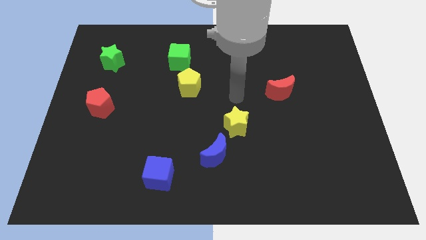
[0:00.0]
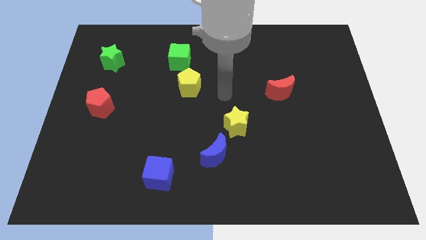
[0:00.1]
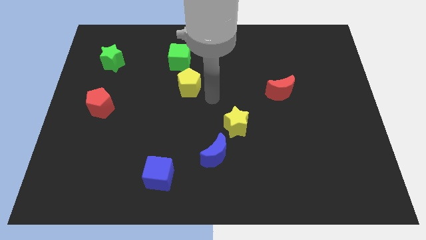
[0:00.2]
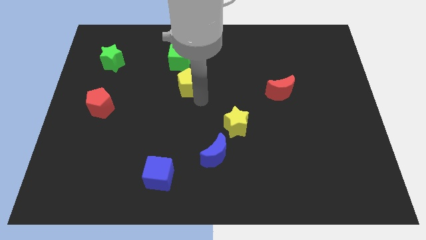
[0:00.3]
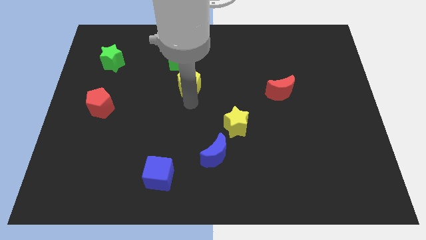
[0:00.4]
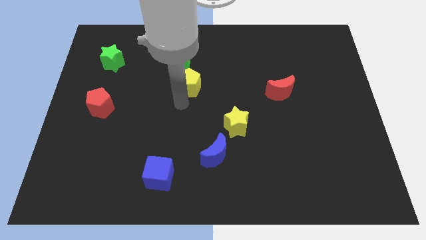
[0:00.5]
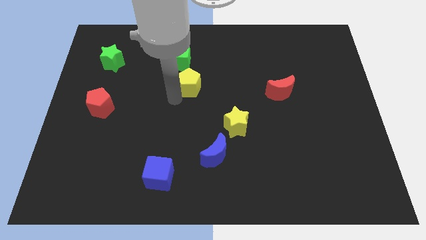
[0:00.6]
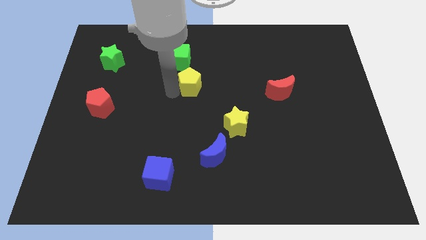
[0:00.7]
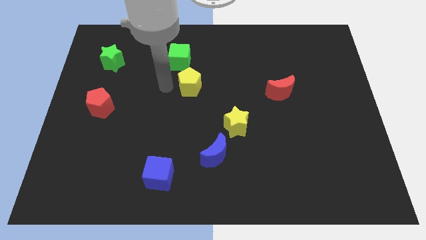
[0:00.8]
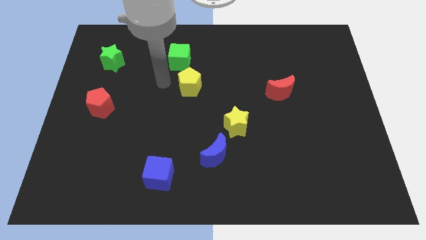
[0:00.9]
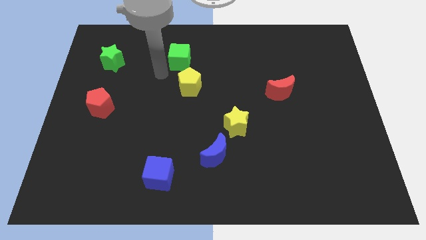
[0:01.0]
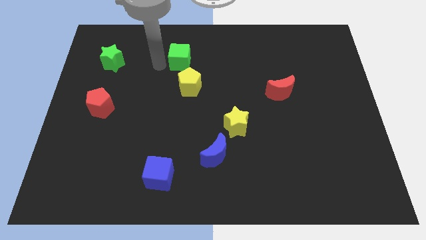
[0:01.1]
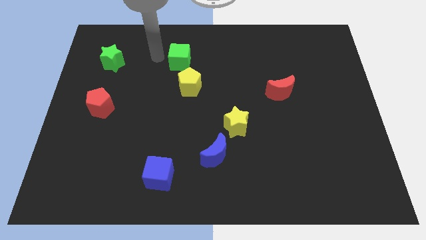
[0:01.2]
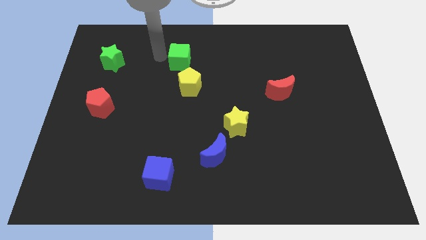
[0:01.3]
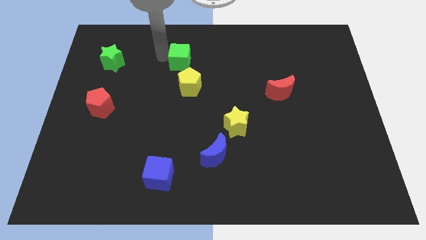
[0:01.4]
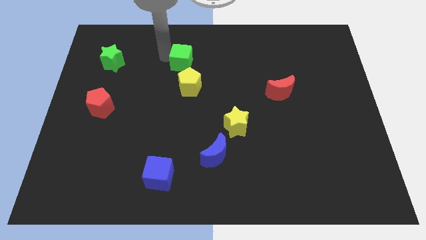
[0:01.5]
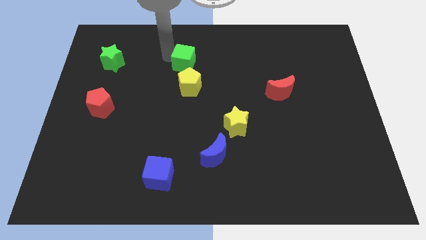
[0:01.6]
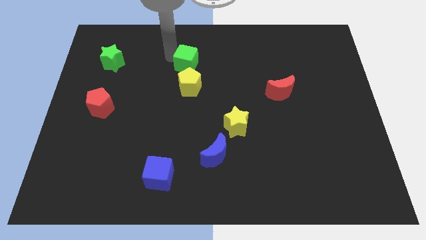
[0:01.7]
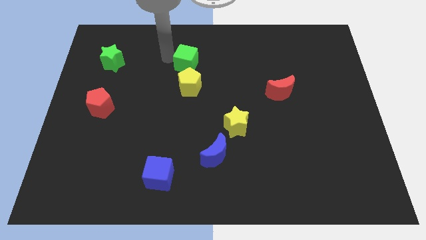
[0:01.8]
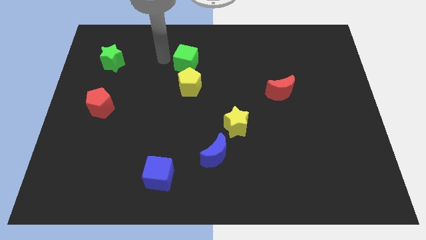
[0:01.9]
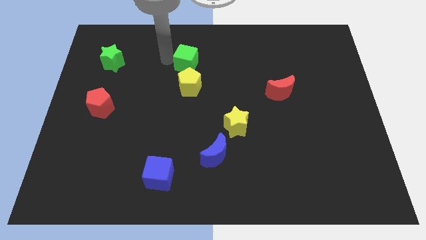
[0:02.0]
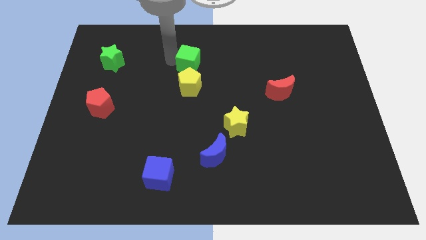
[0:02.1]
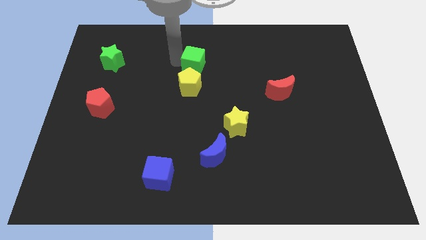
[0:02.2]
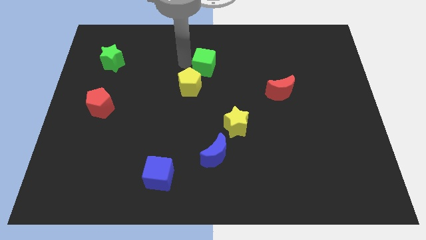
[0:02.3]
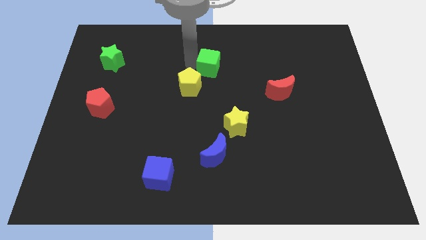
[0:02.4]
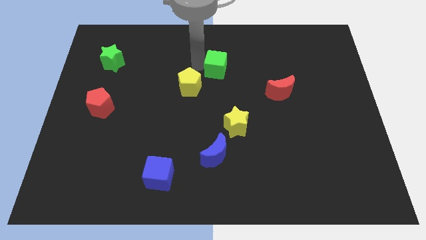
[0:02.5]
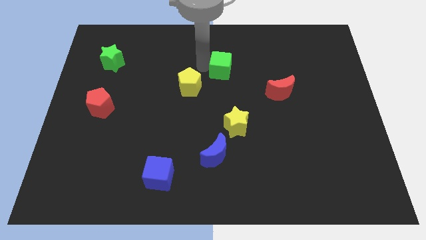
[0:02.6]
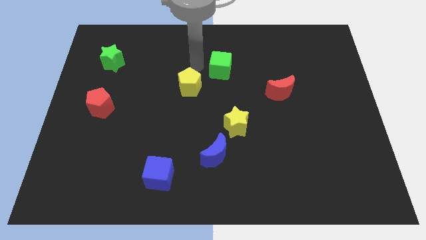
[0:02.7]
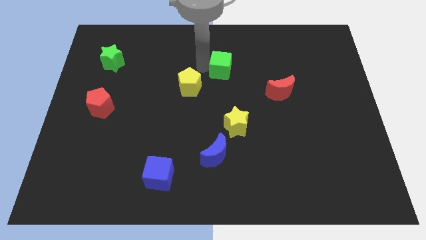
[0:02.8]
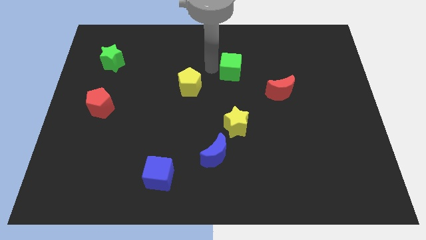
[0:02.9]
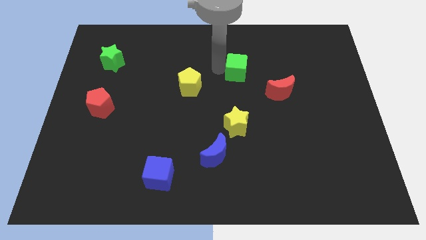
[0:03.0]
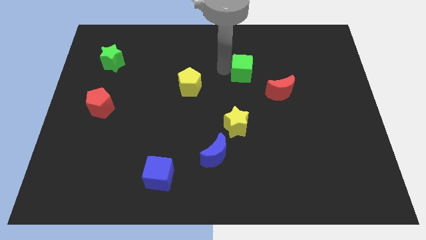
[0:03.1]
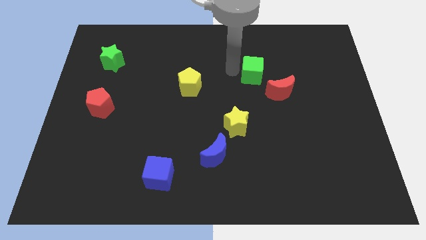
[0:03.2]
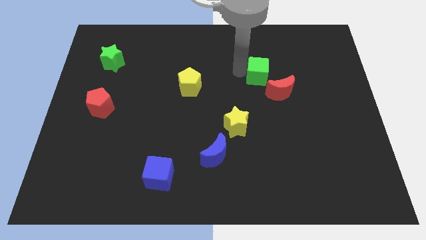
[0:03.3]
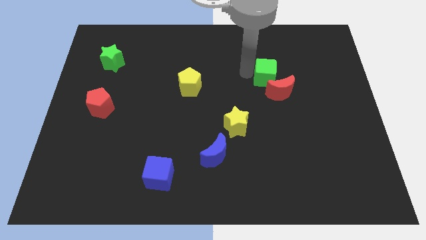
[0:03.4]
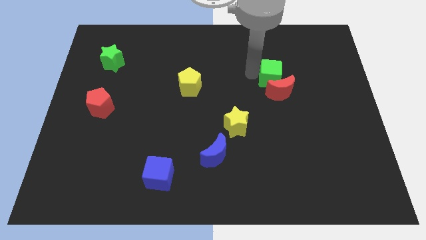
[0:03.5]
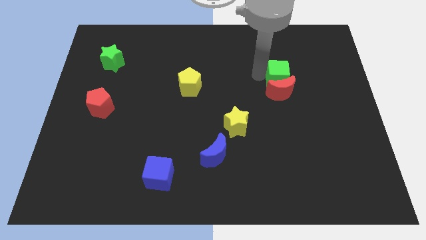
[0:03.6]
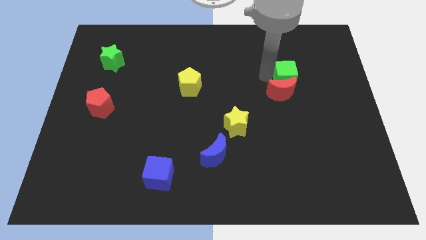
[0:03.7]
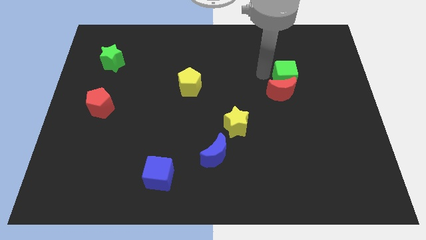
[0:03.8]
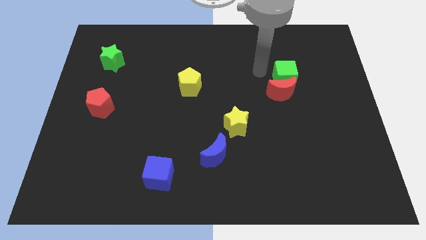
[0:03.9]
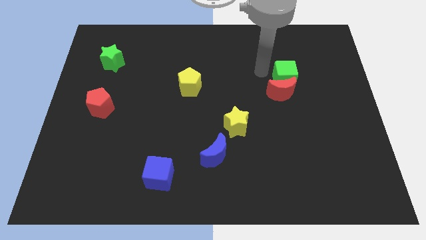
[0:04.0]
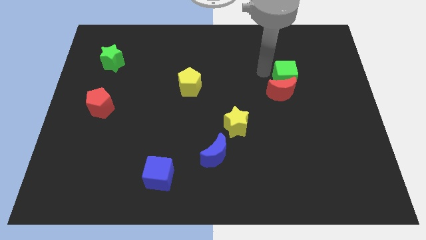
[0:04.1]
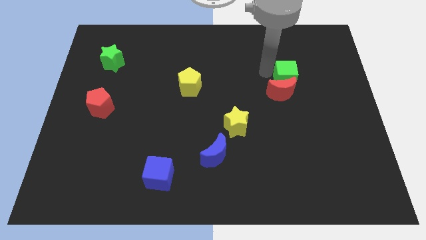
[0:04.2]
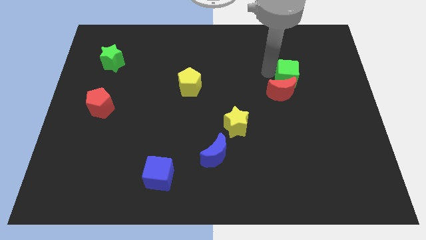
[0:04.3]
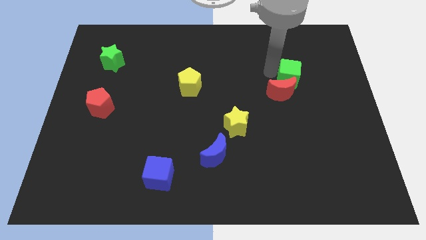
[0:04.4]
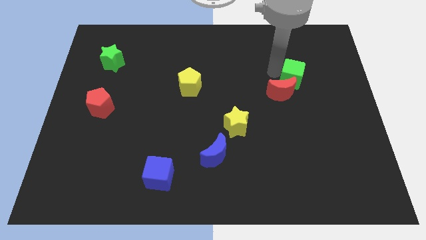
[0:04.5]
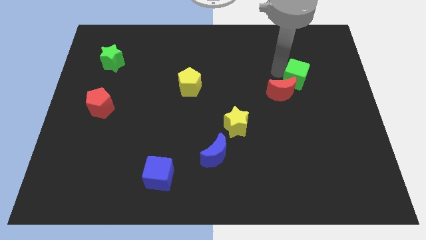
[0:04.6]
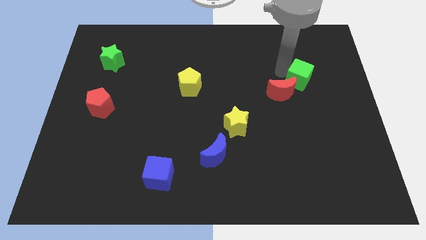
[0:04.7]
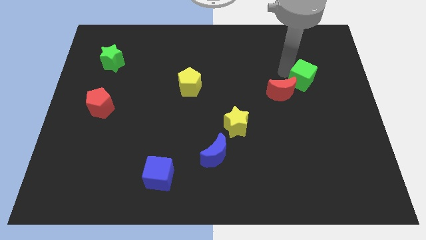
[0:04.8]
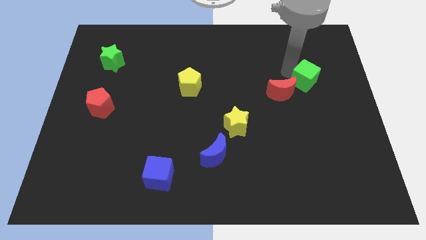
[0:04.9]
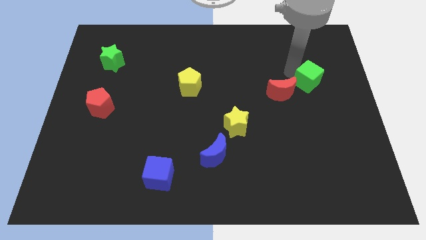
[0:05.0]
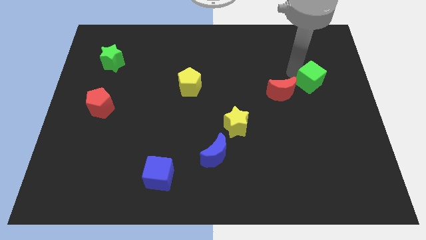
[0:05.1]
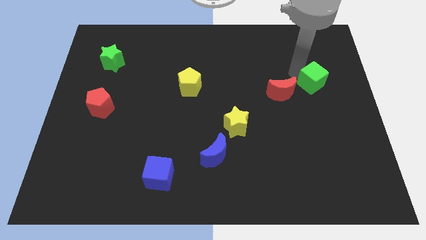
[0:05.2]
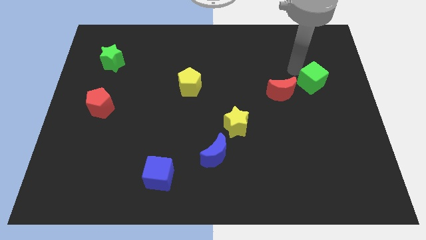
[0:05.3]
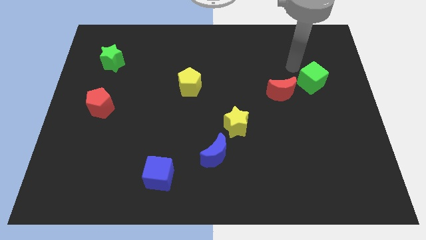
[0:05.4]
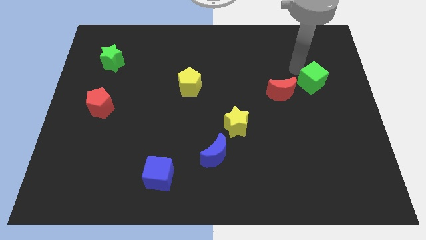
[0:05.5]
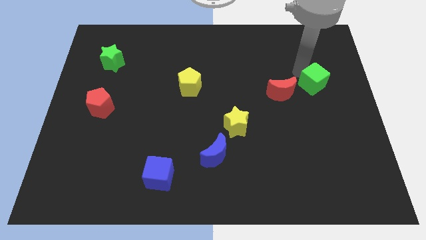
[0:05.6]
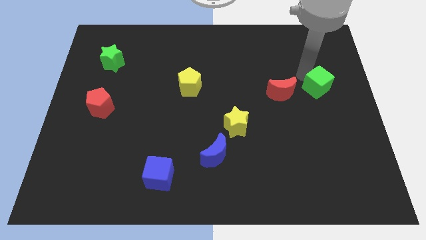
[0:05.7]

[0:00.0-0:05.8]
put the green cube to the center right

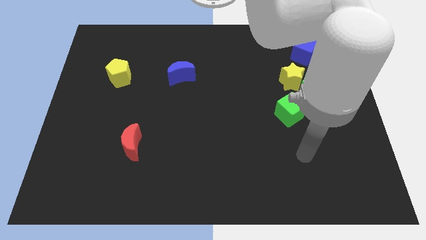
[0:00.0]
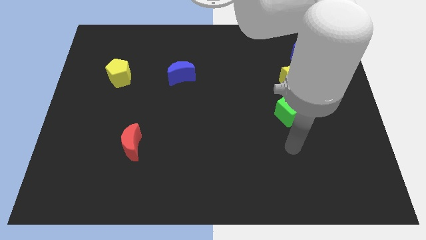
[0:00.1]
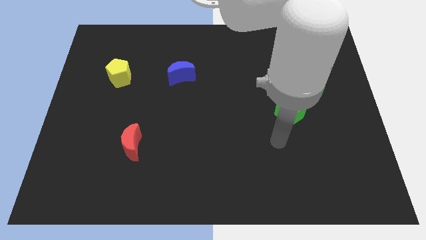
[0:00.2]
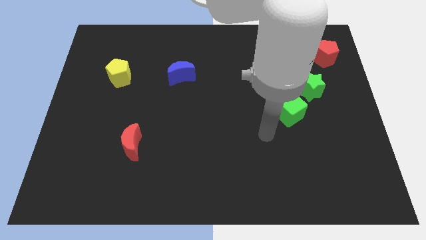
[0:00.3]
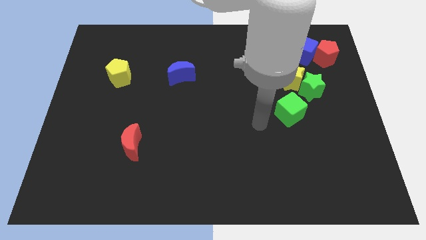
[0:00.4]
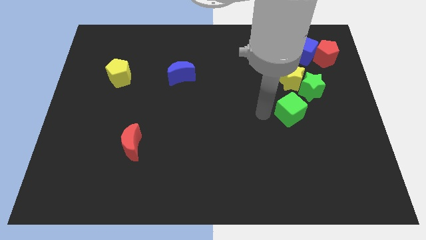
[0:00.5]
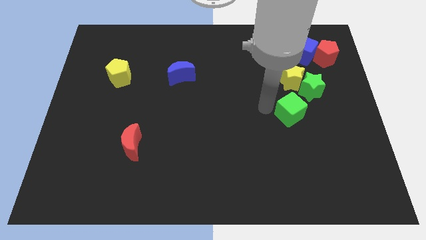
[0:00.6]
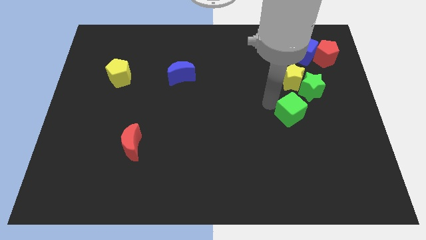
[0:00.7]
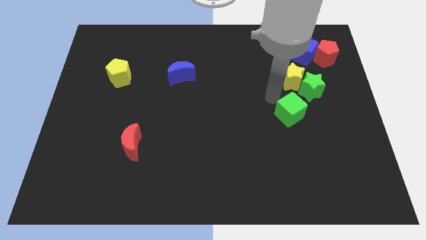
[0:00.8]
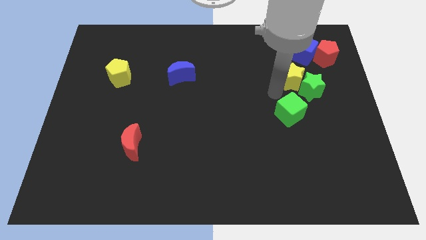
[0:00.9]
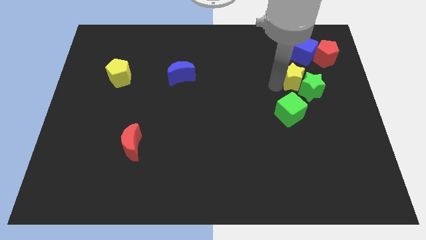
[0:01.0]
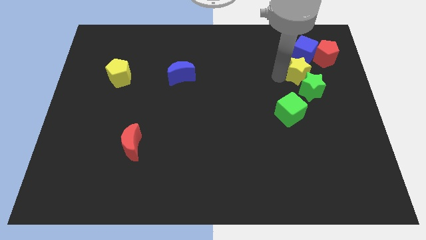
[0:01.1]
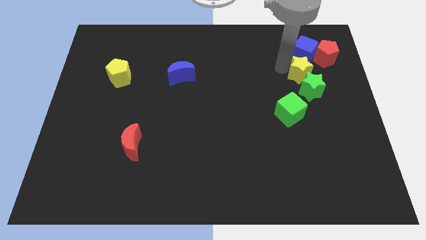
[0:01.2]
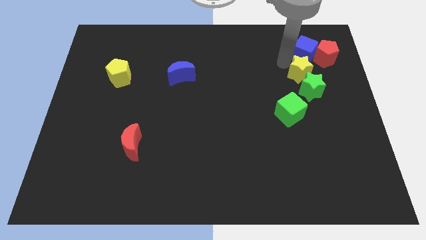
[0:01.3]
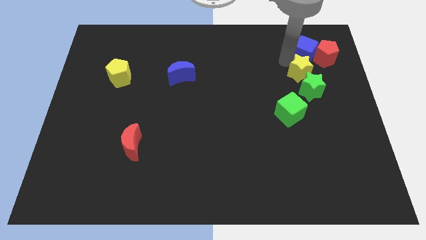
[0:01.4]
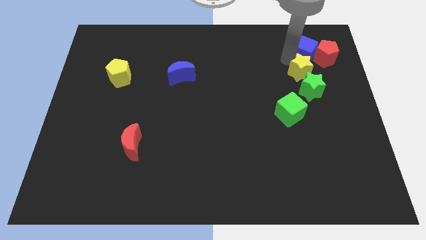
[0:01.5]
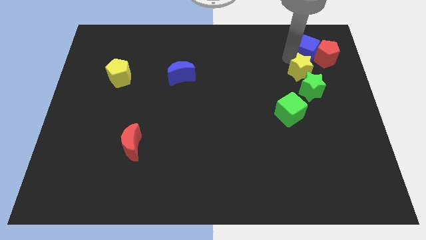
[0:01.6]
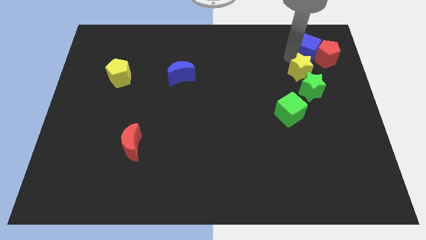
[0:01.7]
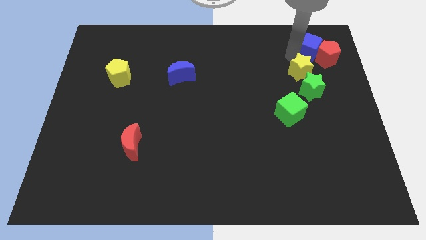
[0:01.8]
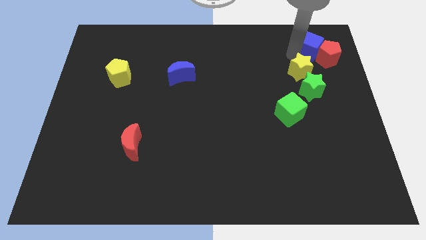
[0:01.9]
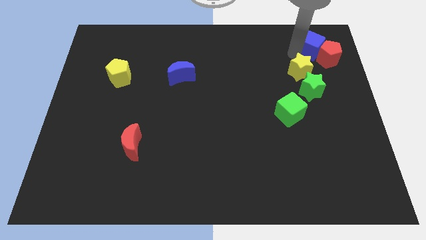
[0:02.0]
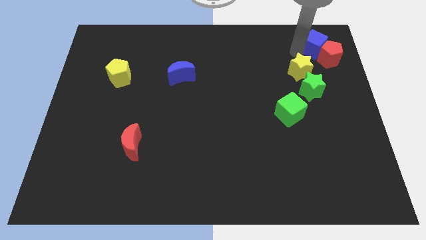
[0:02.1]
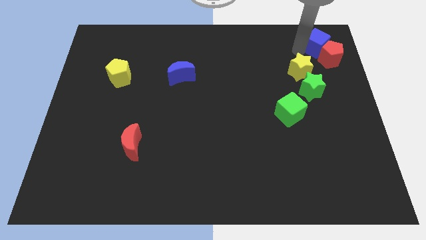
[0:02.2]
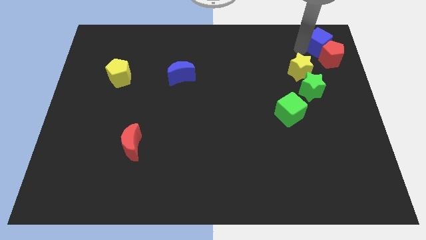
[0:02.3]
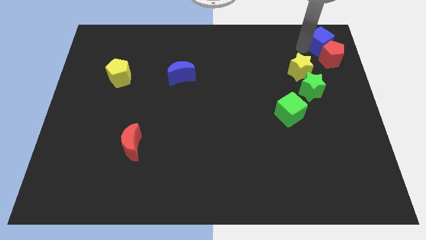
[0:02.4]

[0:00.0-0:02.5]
put the blue cube to the top right of the board
